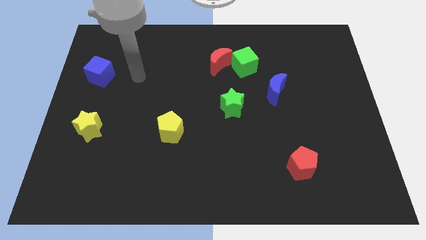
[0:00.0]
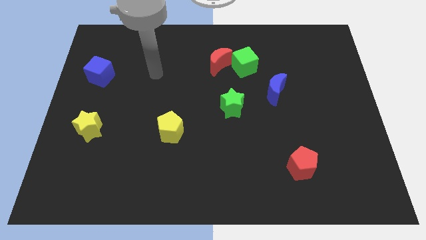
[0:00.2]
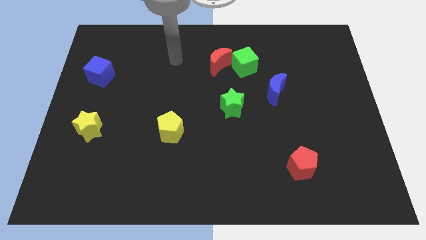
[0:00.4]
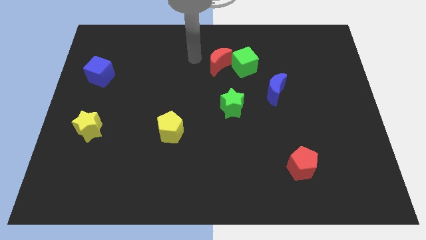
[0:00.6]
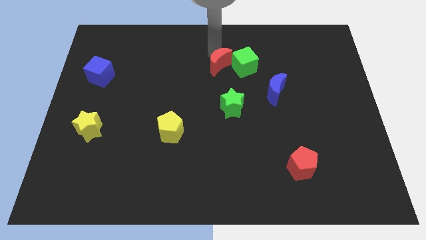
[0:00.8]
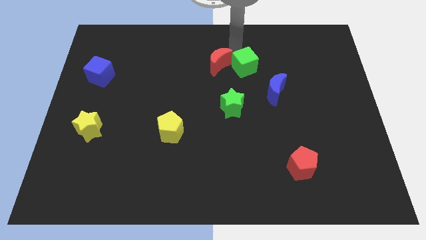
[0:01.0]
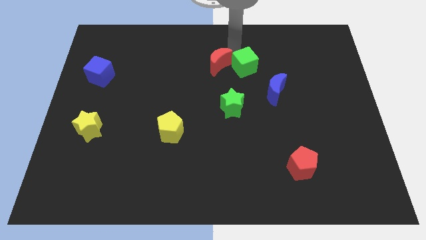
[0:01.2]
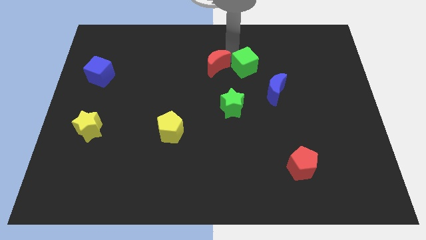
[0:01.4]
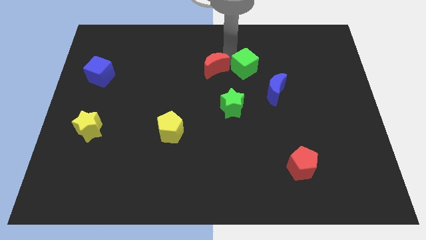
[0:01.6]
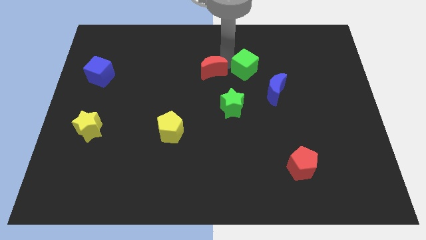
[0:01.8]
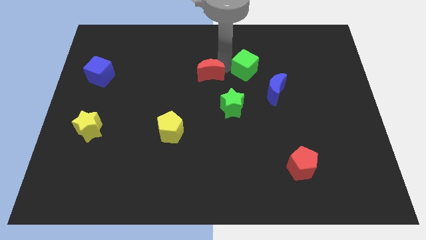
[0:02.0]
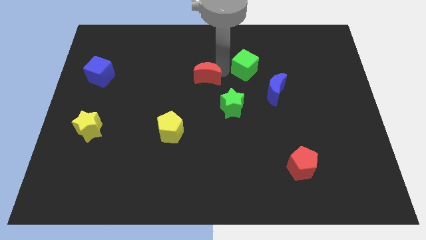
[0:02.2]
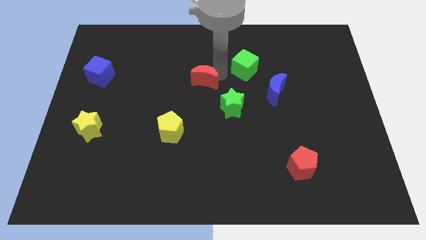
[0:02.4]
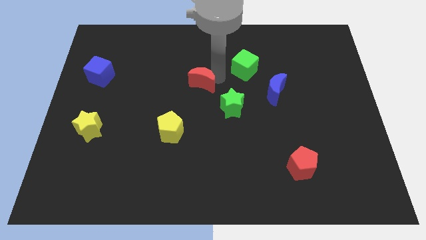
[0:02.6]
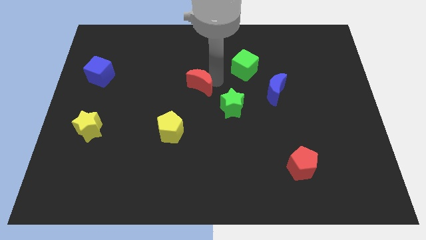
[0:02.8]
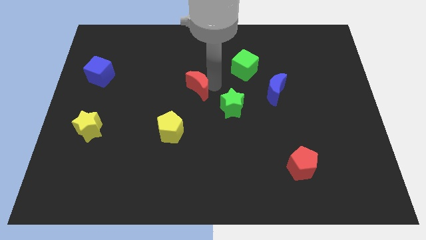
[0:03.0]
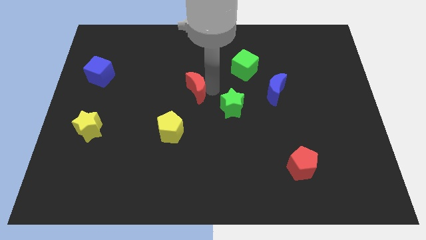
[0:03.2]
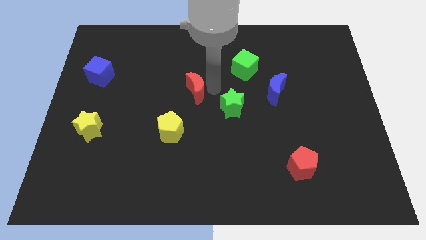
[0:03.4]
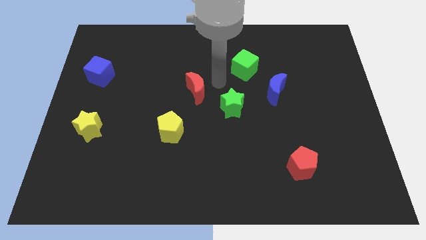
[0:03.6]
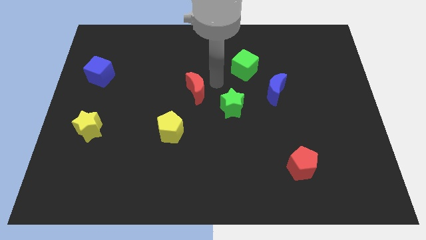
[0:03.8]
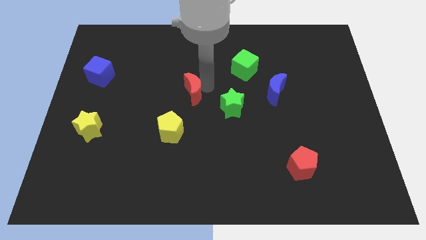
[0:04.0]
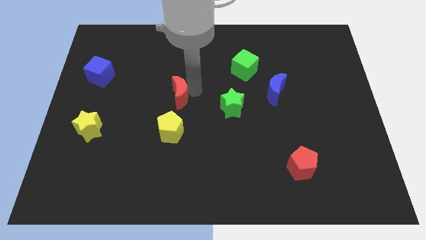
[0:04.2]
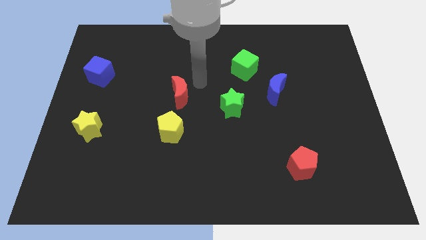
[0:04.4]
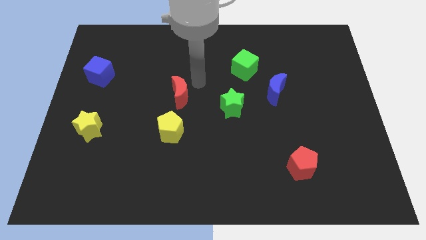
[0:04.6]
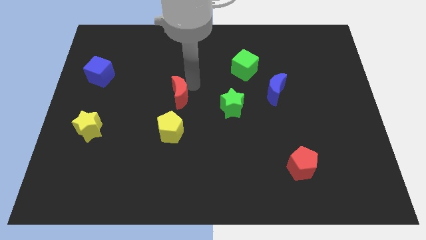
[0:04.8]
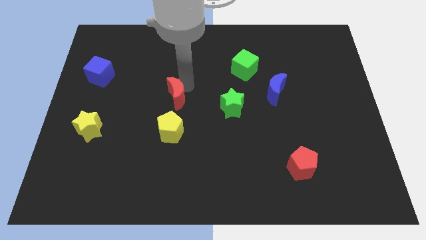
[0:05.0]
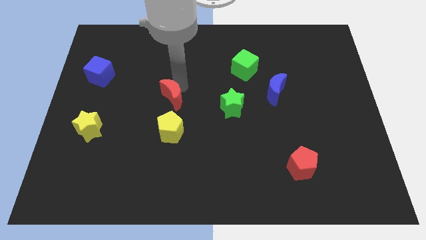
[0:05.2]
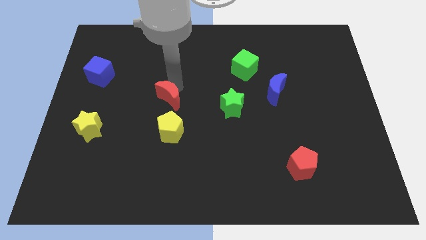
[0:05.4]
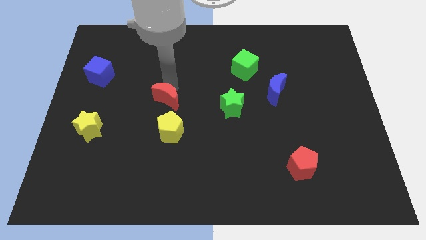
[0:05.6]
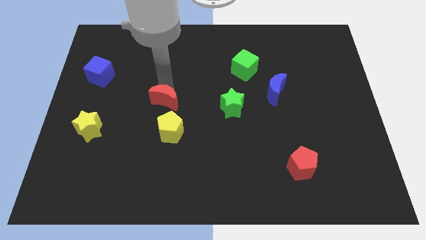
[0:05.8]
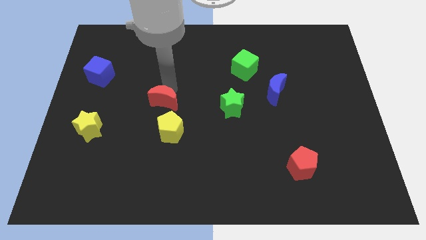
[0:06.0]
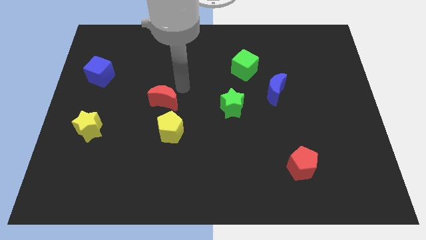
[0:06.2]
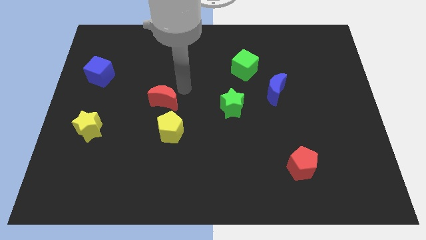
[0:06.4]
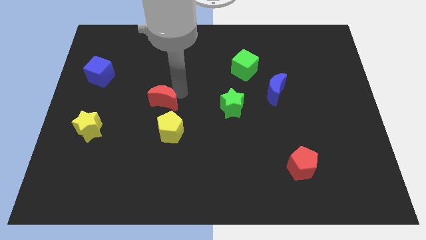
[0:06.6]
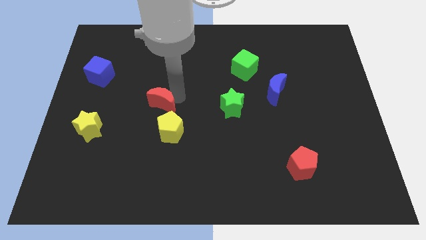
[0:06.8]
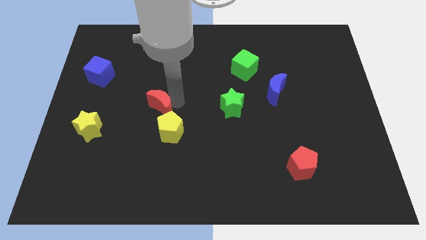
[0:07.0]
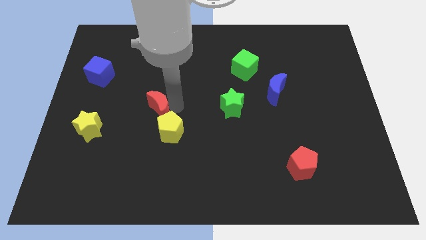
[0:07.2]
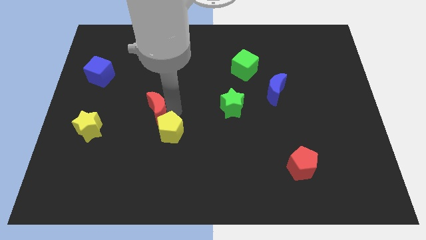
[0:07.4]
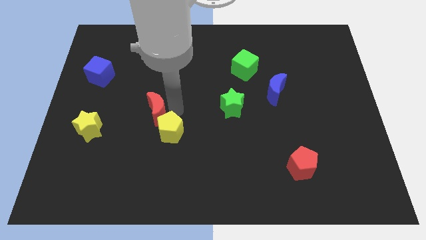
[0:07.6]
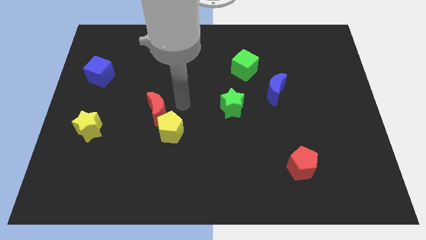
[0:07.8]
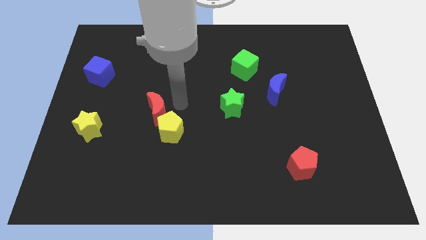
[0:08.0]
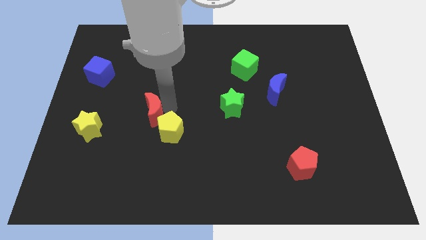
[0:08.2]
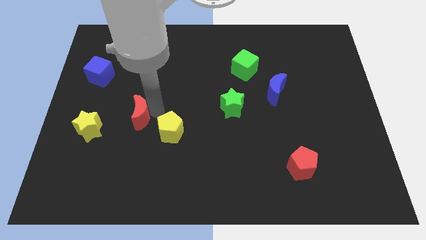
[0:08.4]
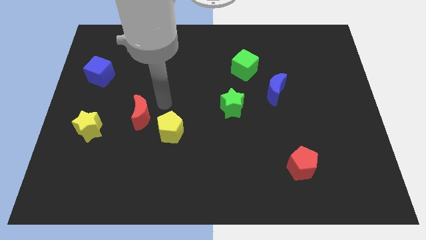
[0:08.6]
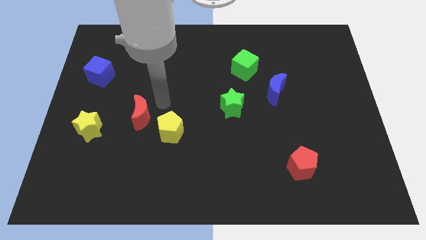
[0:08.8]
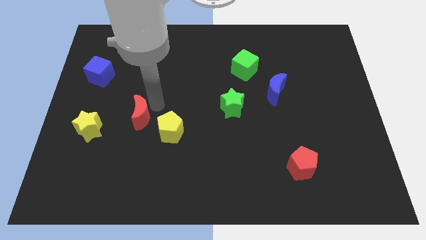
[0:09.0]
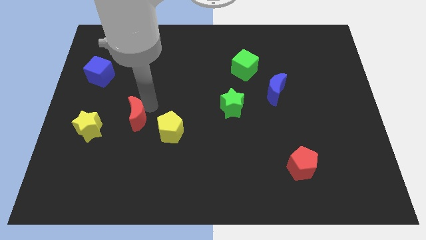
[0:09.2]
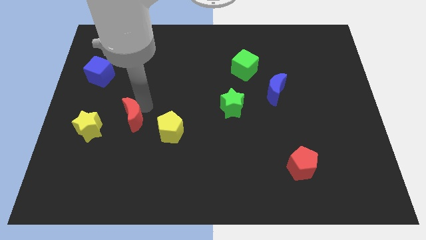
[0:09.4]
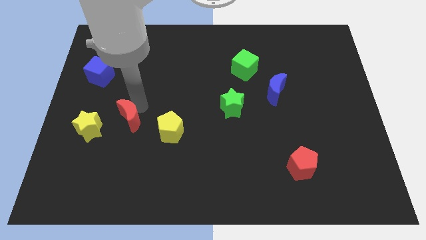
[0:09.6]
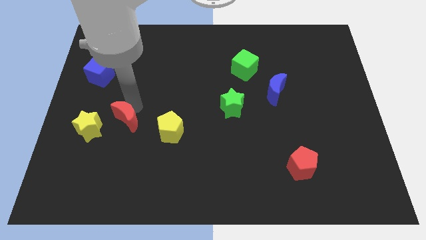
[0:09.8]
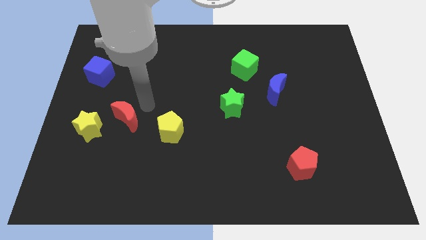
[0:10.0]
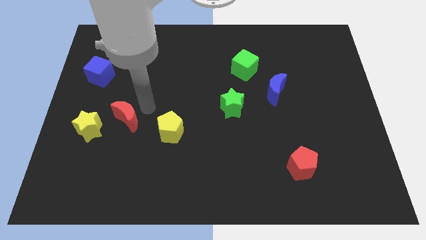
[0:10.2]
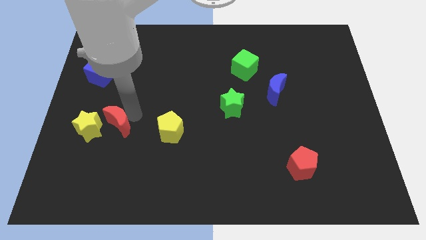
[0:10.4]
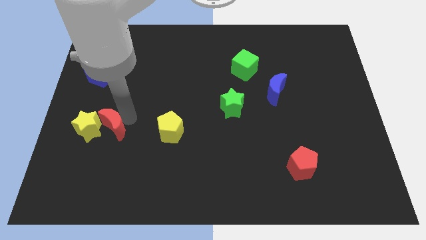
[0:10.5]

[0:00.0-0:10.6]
slide the red moon close to the yellow star

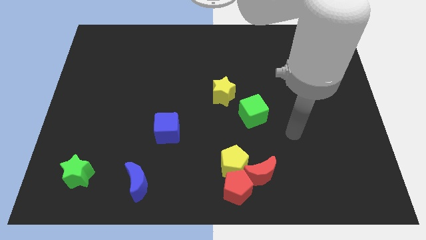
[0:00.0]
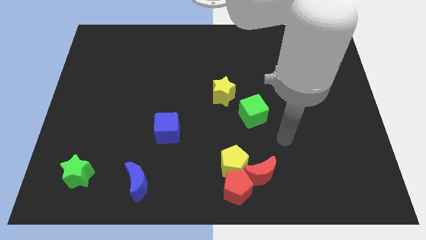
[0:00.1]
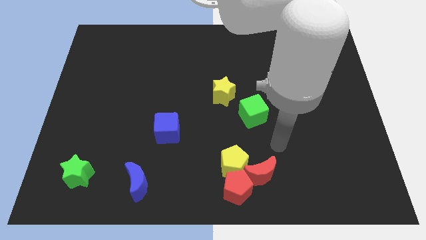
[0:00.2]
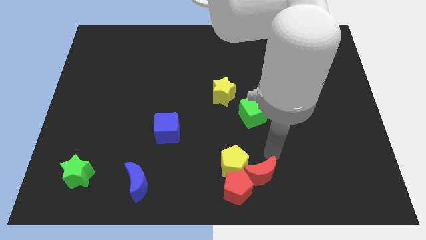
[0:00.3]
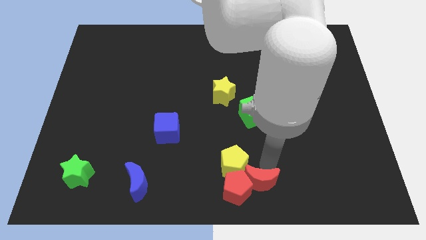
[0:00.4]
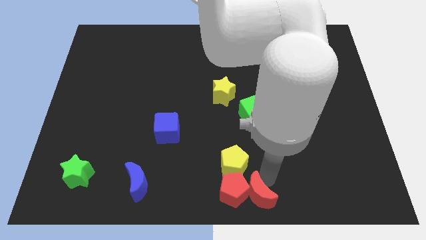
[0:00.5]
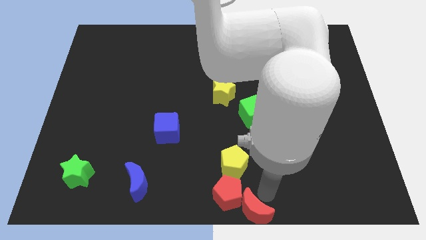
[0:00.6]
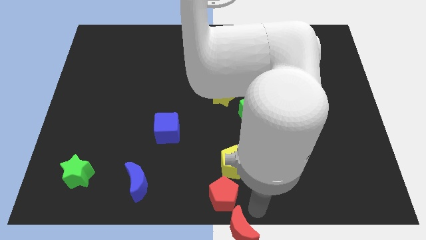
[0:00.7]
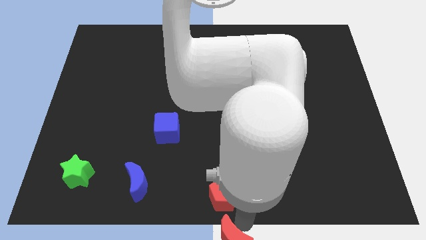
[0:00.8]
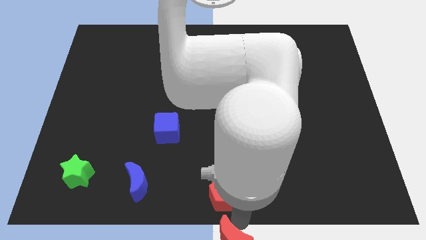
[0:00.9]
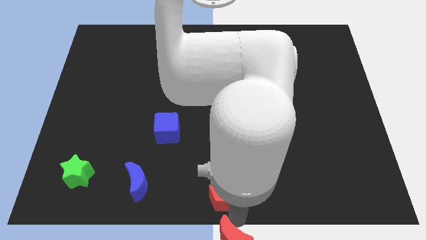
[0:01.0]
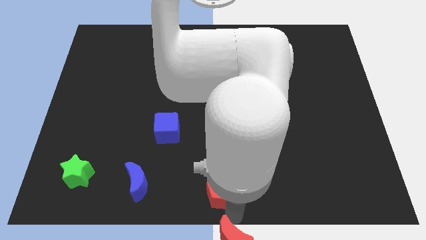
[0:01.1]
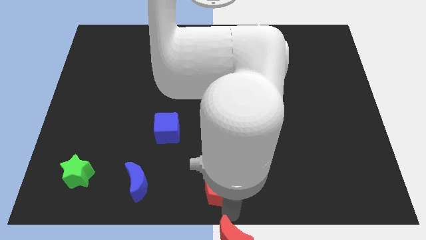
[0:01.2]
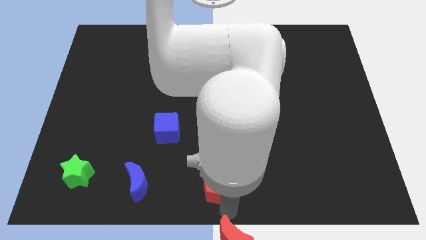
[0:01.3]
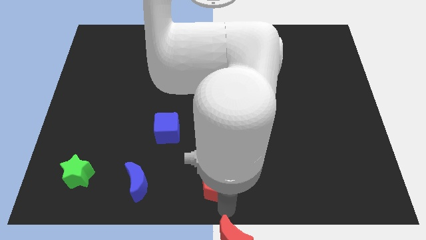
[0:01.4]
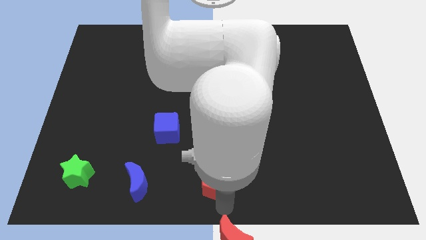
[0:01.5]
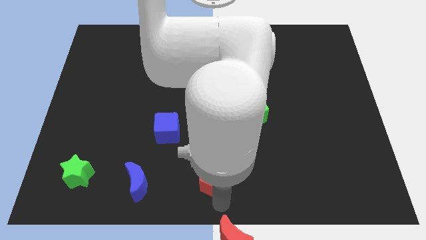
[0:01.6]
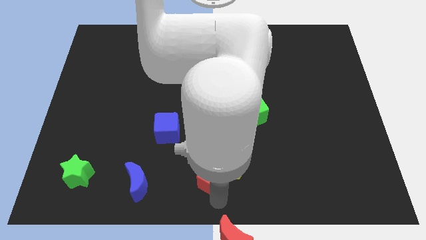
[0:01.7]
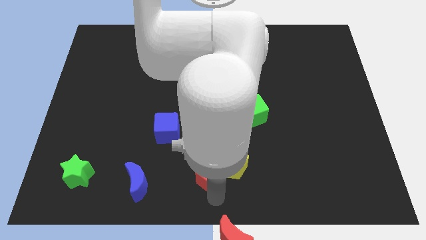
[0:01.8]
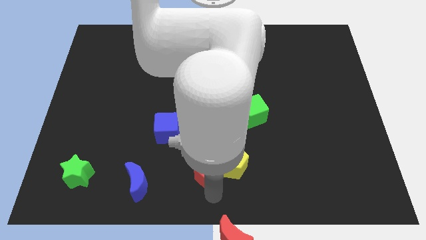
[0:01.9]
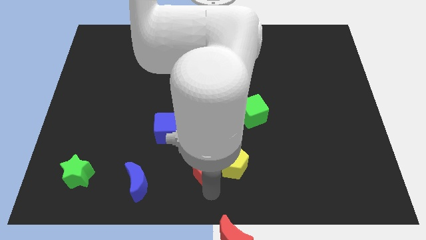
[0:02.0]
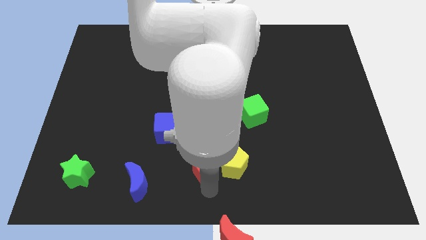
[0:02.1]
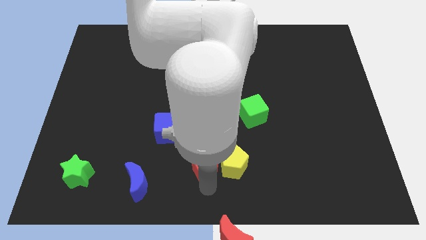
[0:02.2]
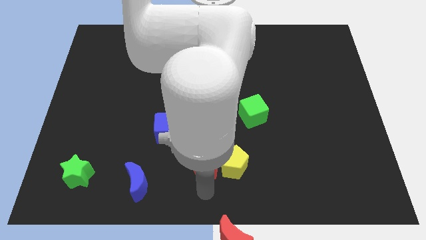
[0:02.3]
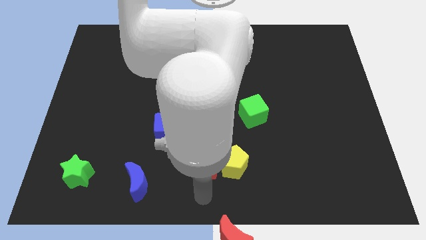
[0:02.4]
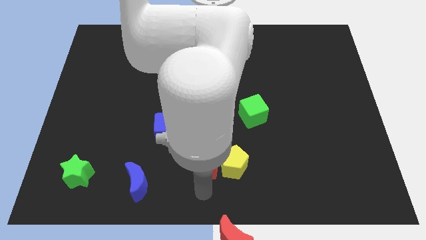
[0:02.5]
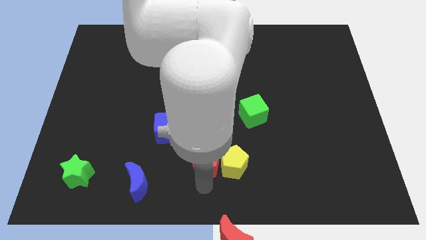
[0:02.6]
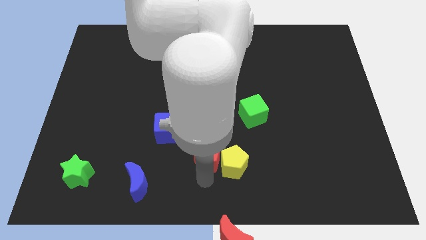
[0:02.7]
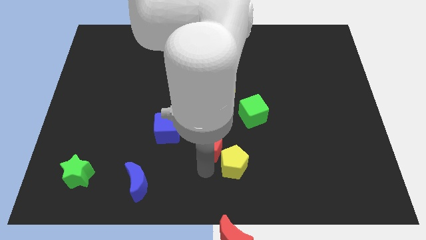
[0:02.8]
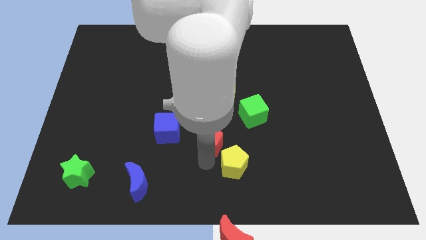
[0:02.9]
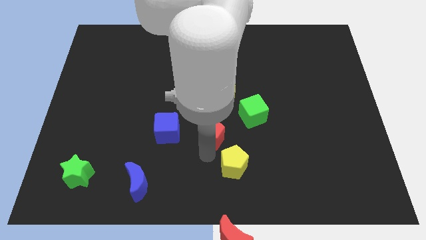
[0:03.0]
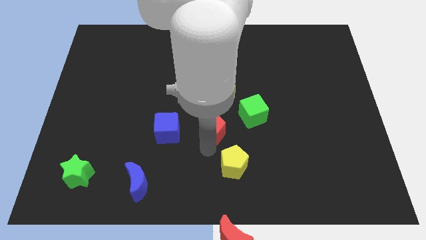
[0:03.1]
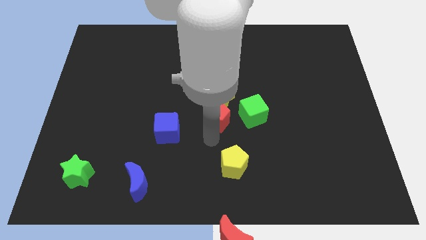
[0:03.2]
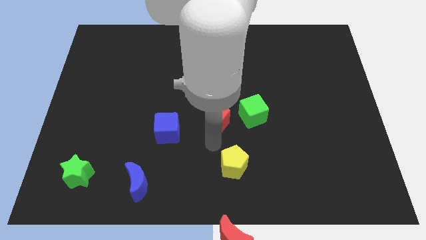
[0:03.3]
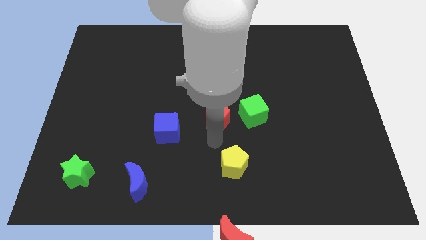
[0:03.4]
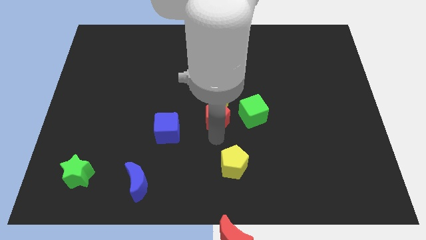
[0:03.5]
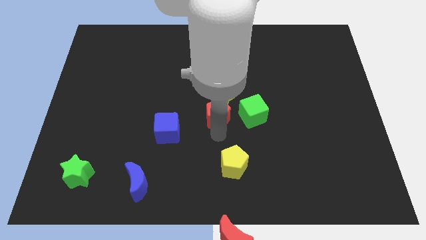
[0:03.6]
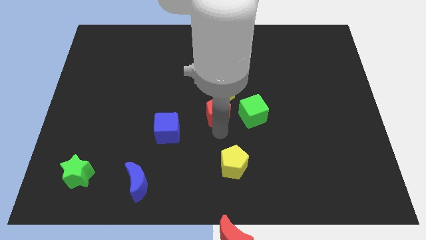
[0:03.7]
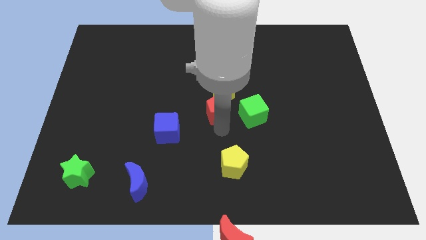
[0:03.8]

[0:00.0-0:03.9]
slide the red pentagon close to the yellow star
